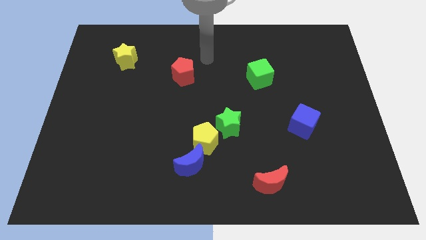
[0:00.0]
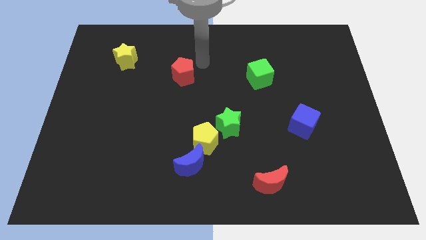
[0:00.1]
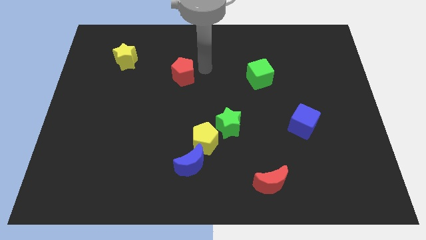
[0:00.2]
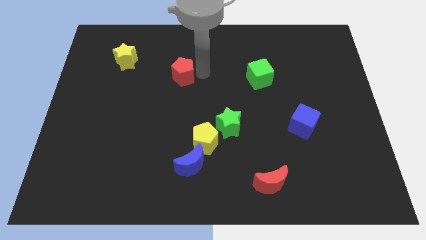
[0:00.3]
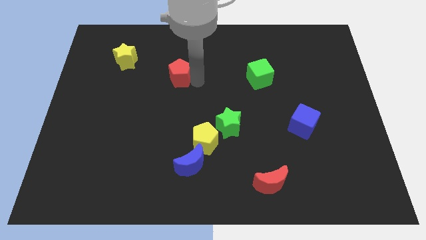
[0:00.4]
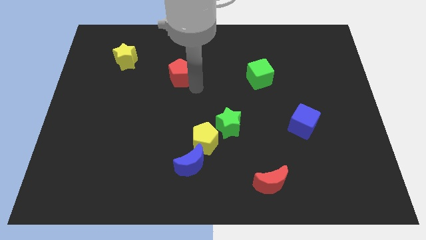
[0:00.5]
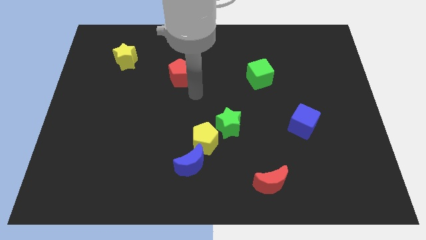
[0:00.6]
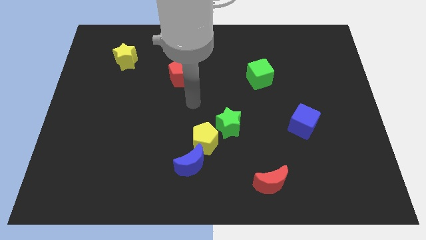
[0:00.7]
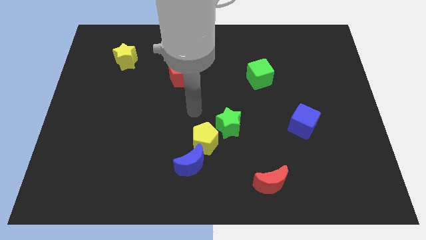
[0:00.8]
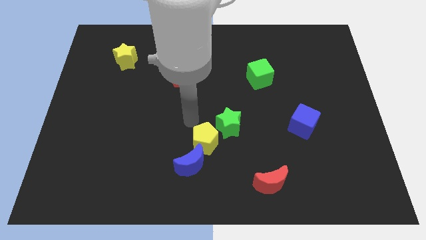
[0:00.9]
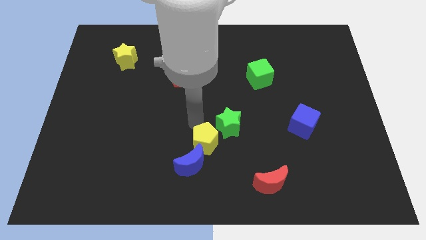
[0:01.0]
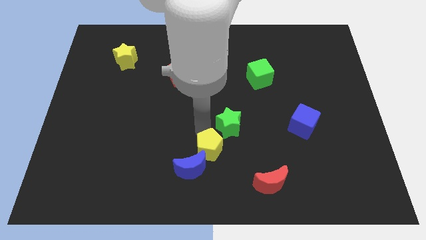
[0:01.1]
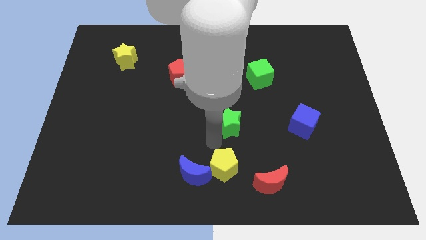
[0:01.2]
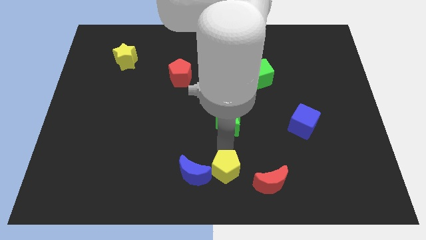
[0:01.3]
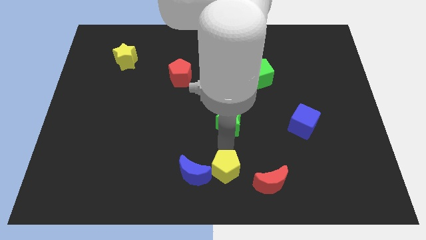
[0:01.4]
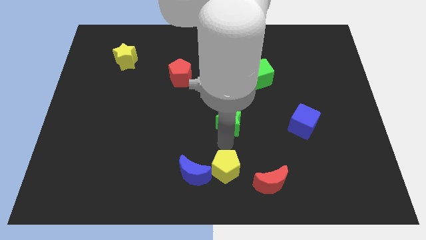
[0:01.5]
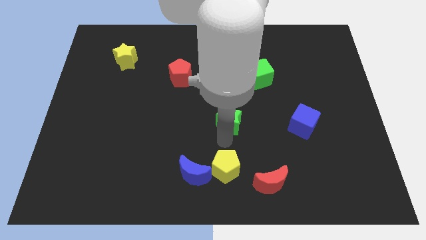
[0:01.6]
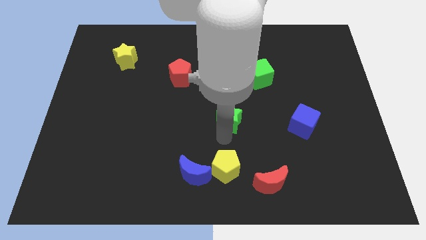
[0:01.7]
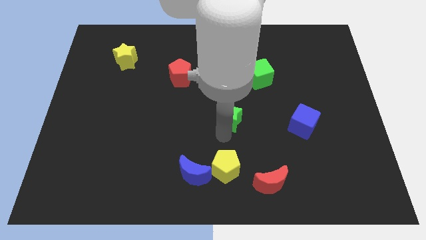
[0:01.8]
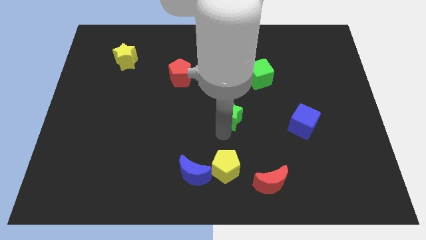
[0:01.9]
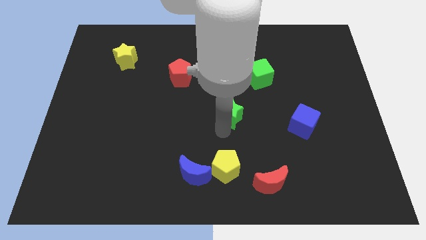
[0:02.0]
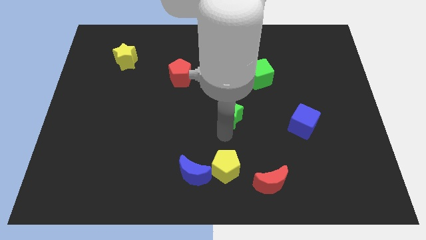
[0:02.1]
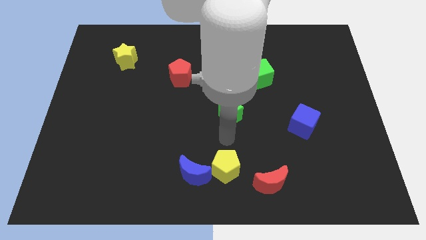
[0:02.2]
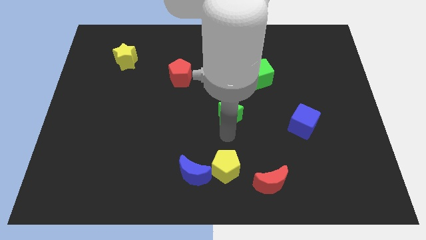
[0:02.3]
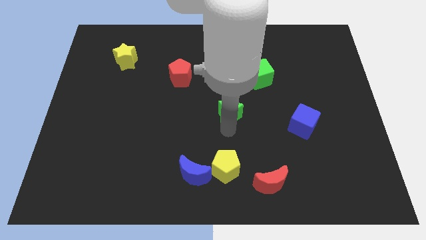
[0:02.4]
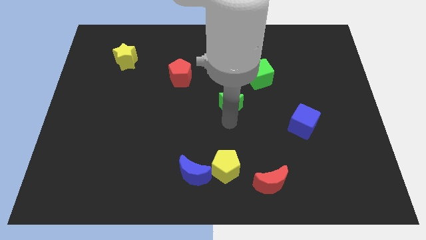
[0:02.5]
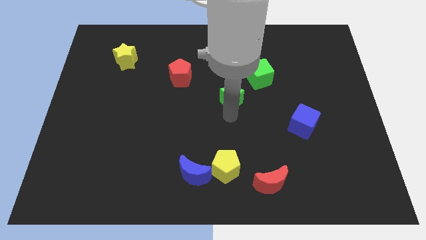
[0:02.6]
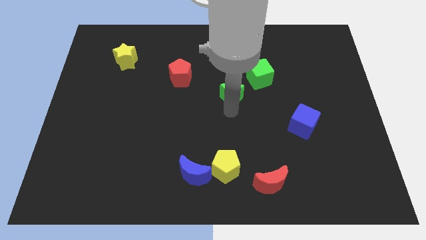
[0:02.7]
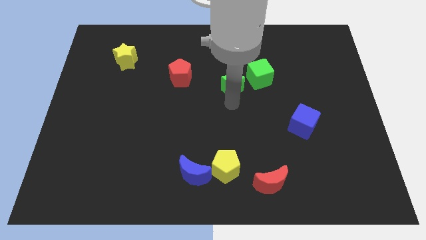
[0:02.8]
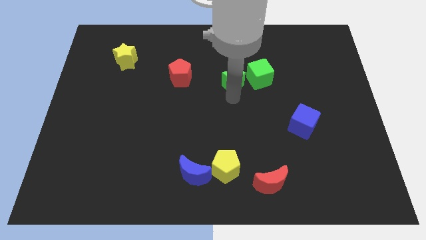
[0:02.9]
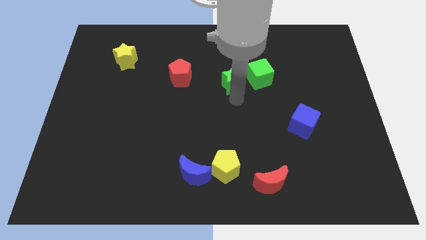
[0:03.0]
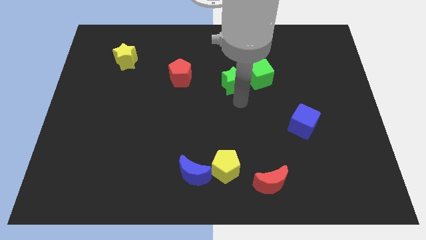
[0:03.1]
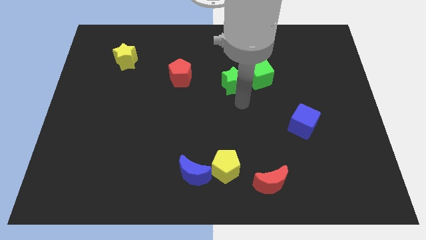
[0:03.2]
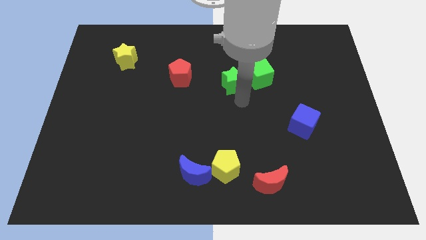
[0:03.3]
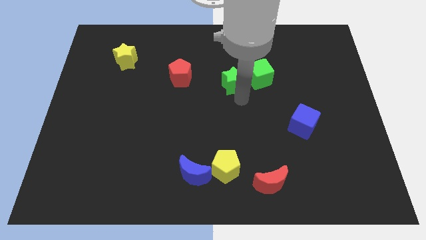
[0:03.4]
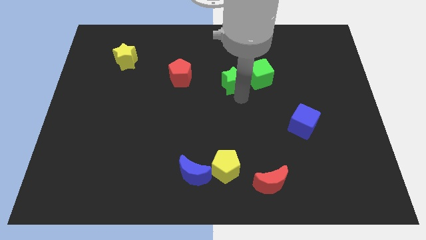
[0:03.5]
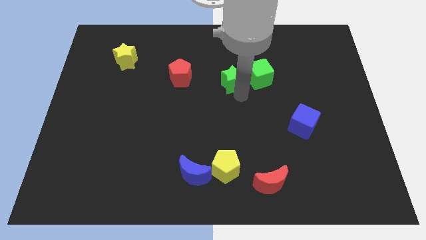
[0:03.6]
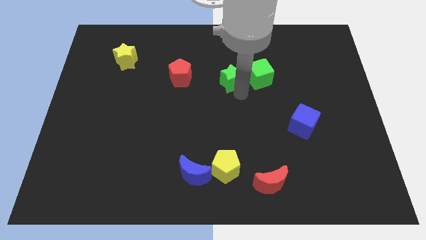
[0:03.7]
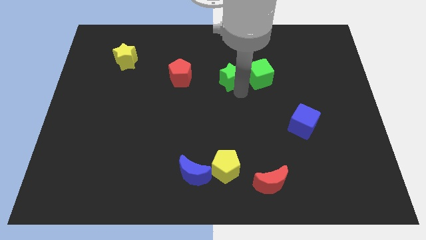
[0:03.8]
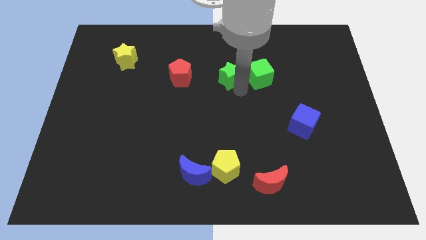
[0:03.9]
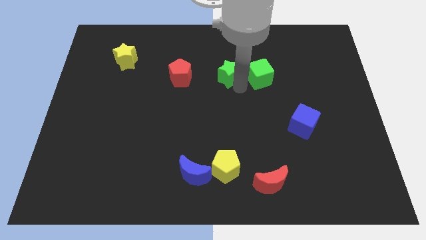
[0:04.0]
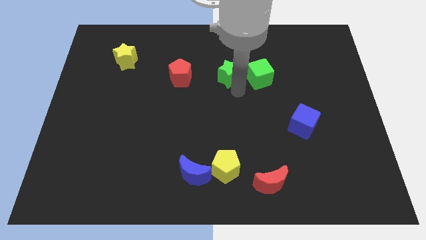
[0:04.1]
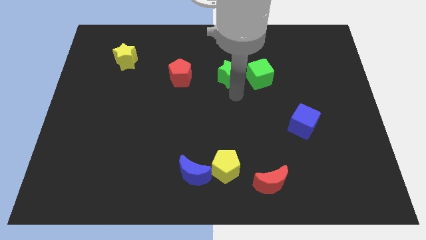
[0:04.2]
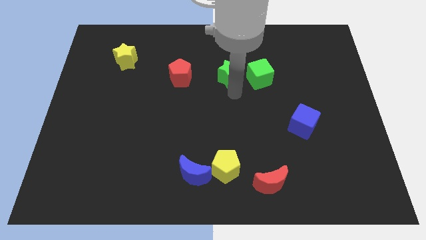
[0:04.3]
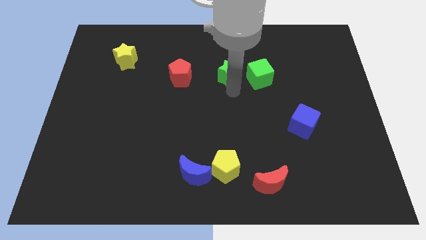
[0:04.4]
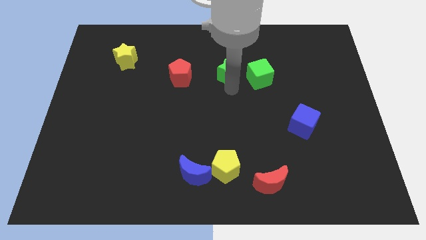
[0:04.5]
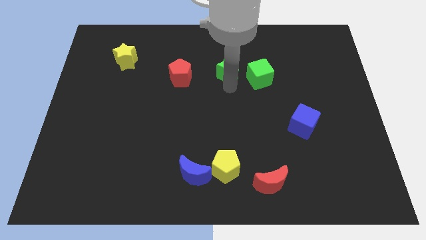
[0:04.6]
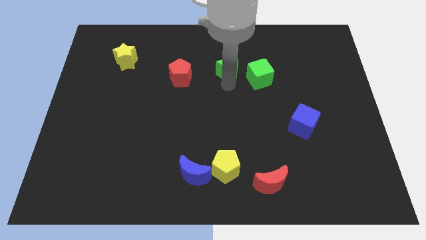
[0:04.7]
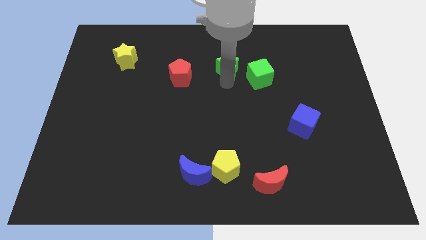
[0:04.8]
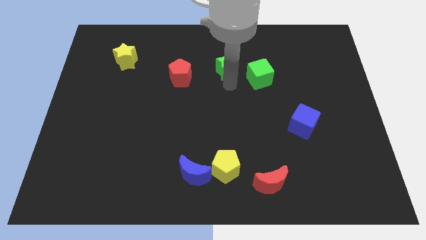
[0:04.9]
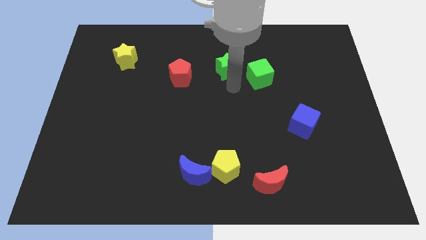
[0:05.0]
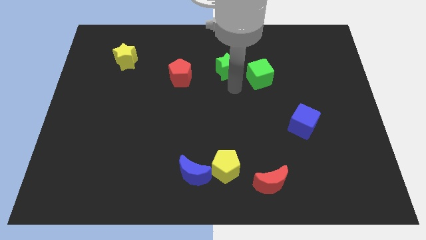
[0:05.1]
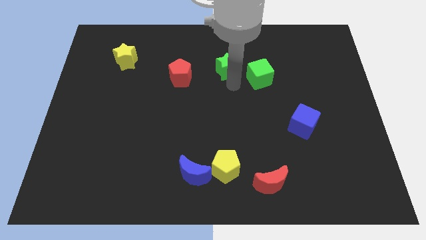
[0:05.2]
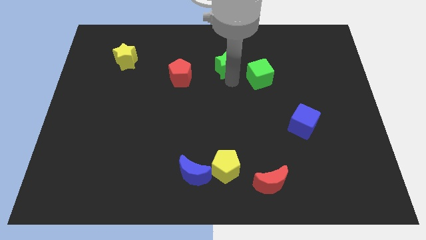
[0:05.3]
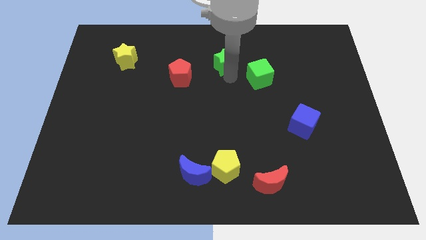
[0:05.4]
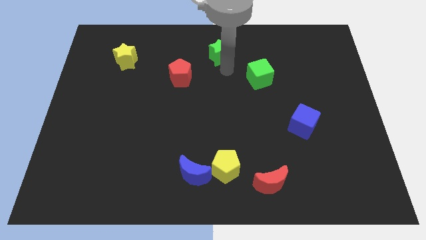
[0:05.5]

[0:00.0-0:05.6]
put the green star to the top side

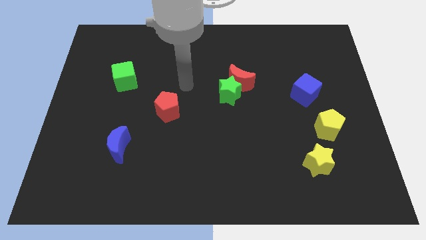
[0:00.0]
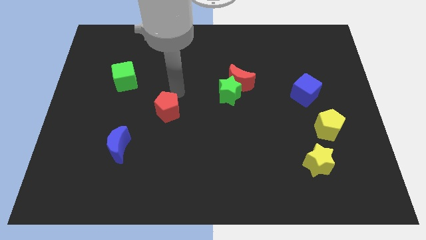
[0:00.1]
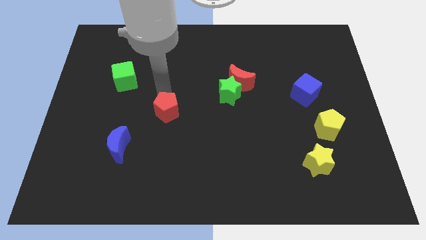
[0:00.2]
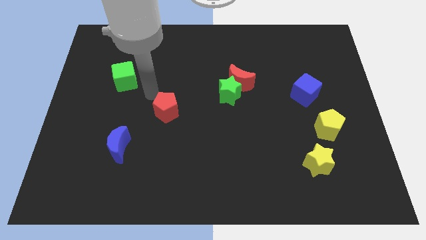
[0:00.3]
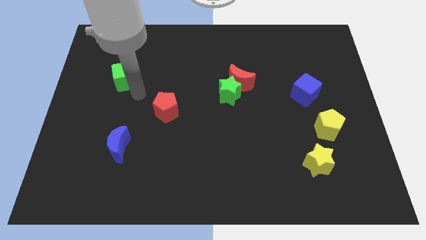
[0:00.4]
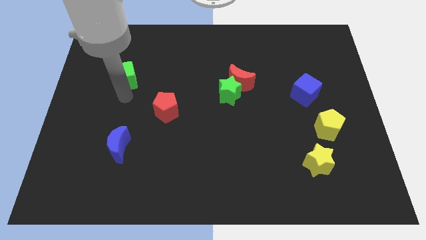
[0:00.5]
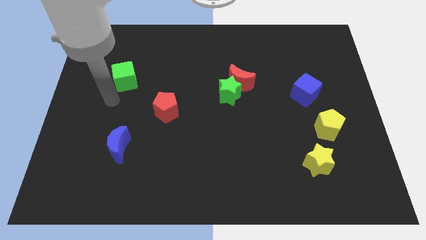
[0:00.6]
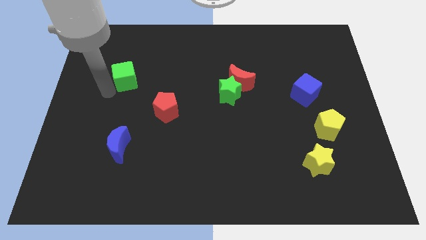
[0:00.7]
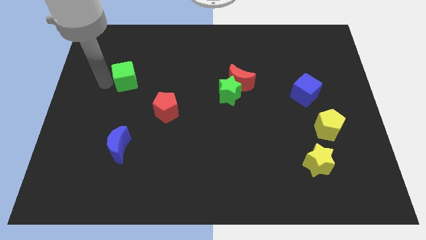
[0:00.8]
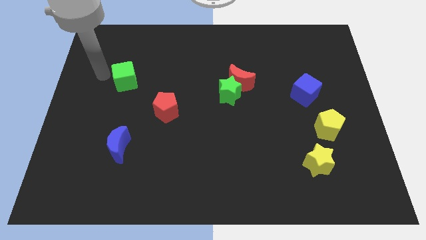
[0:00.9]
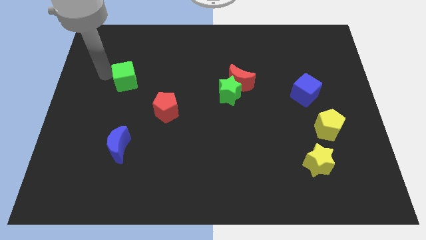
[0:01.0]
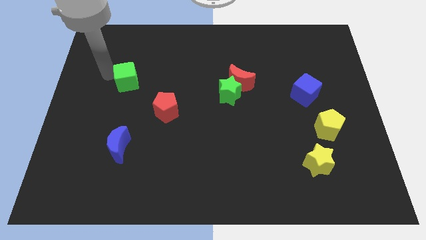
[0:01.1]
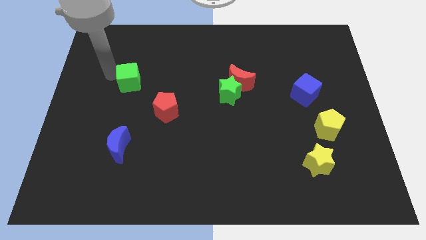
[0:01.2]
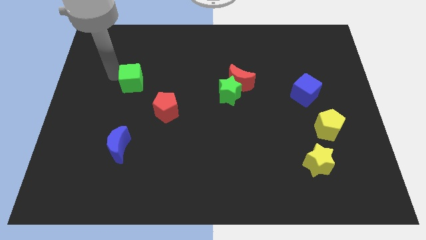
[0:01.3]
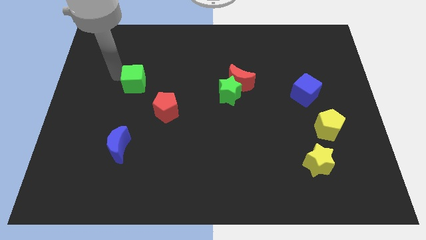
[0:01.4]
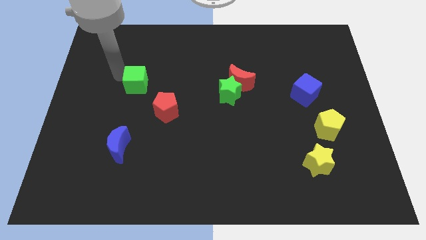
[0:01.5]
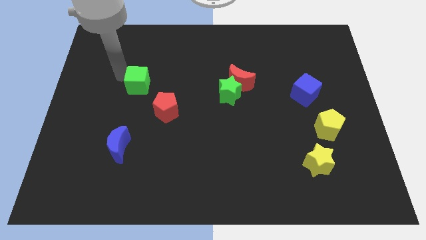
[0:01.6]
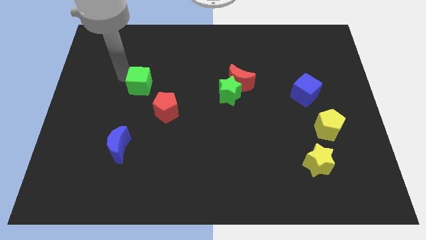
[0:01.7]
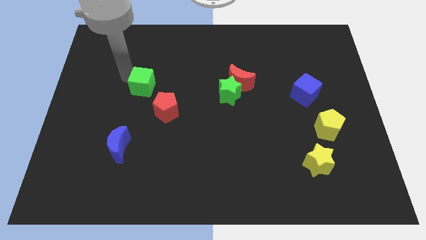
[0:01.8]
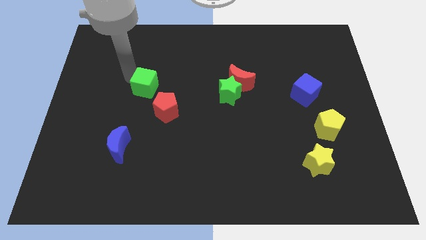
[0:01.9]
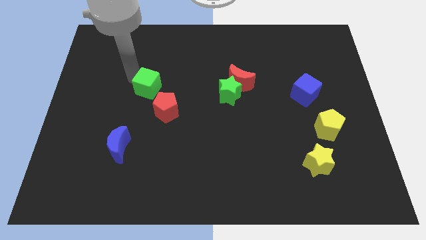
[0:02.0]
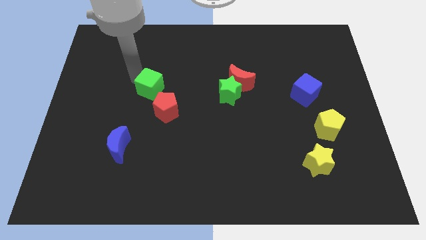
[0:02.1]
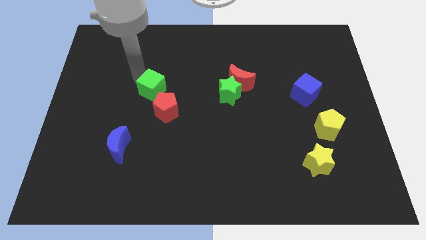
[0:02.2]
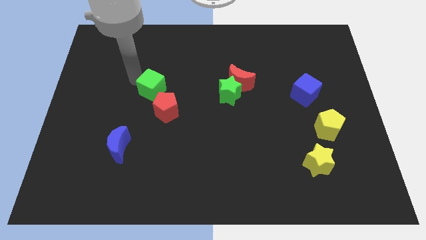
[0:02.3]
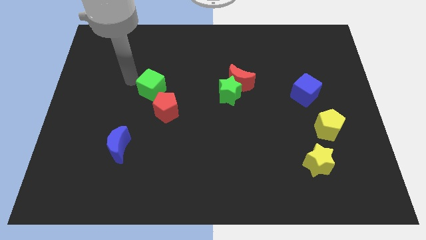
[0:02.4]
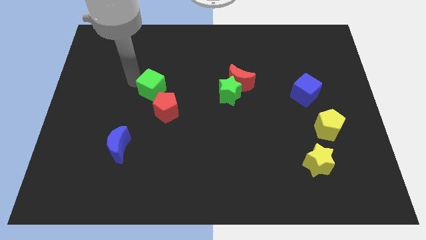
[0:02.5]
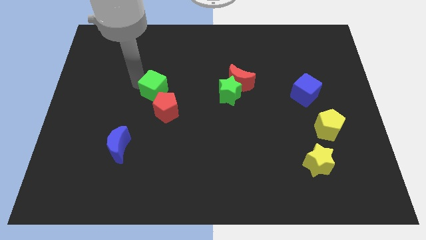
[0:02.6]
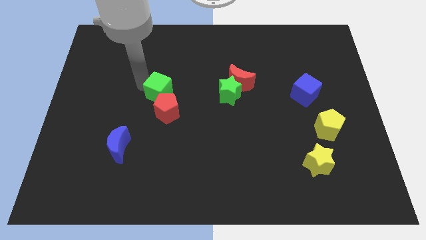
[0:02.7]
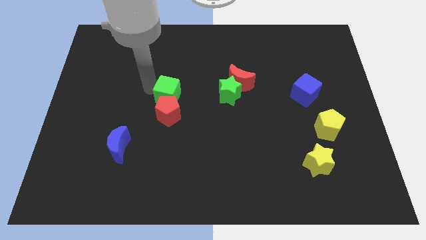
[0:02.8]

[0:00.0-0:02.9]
move the green cube to the middle of the board
